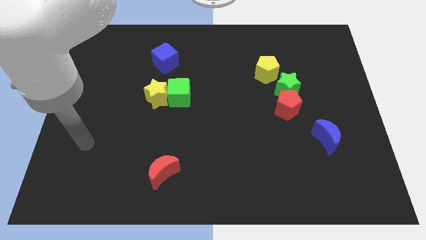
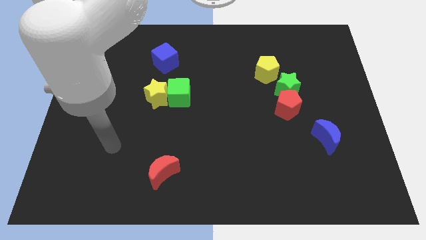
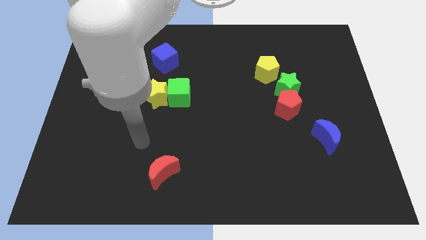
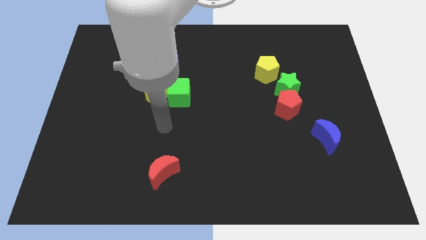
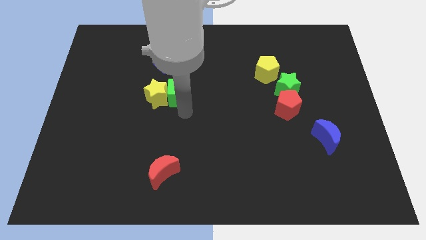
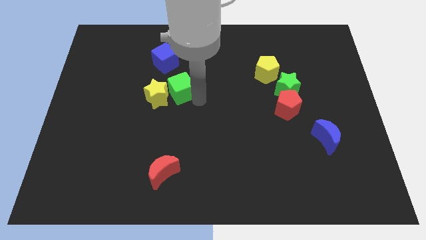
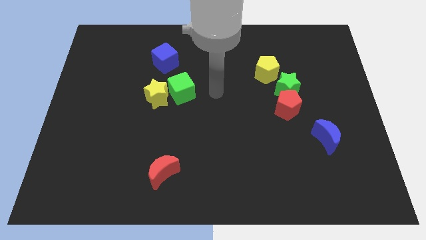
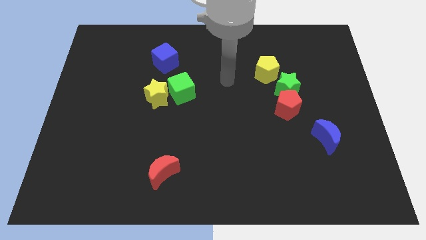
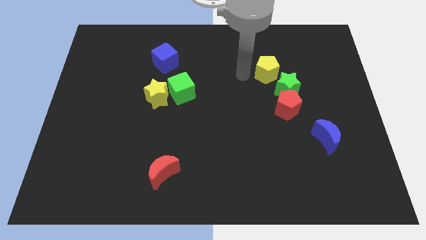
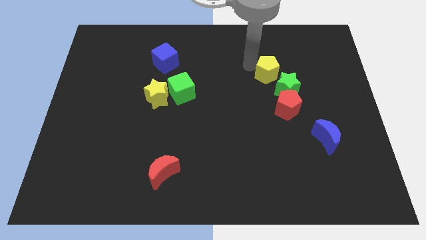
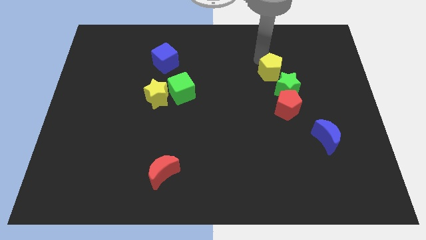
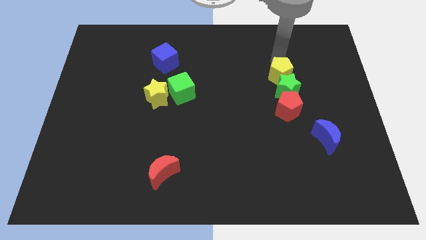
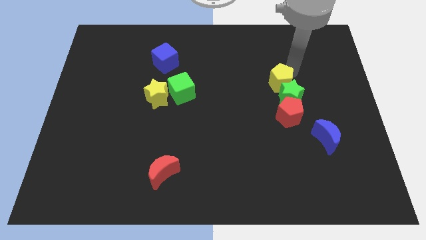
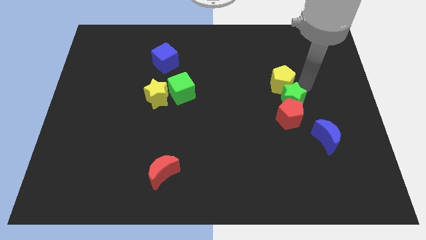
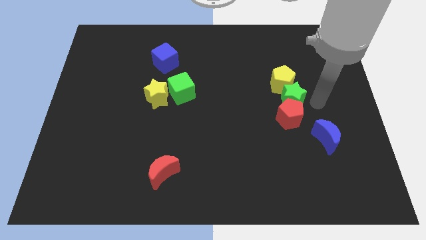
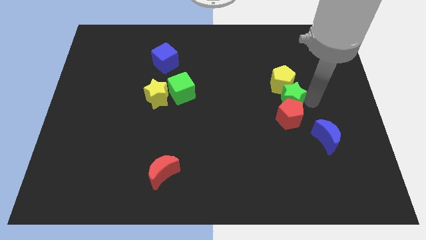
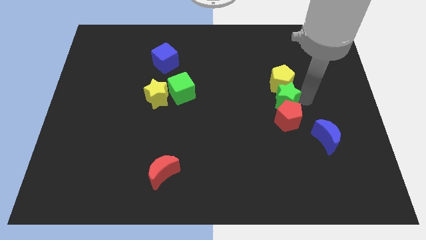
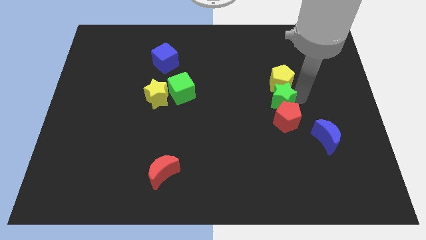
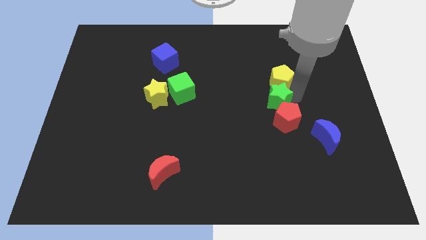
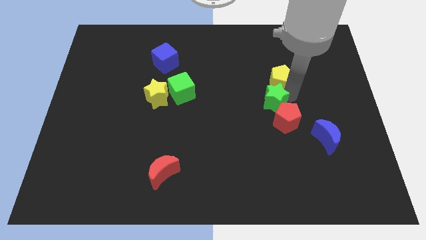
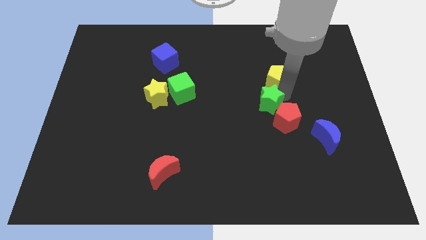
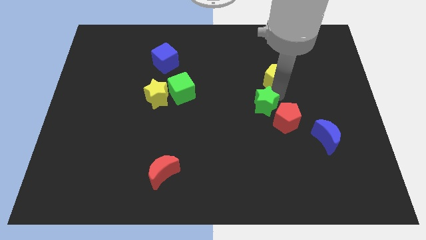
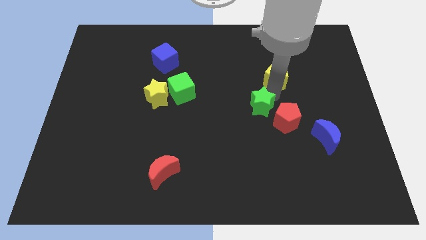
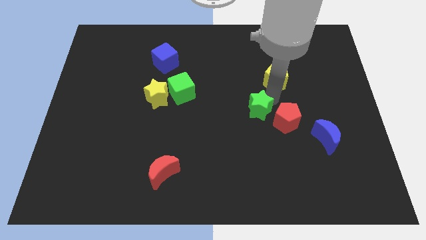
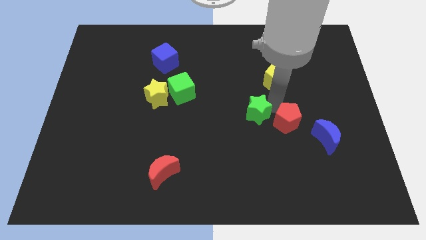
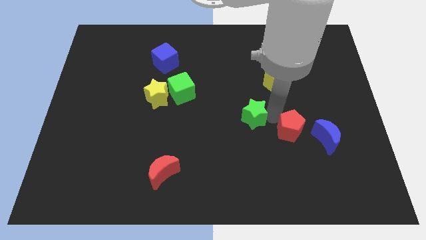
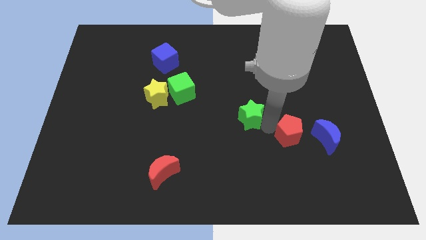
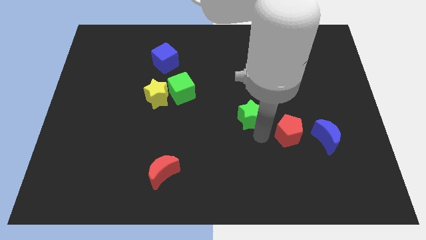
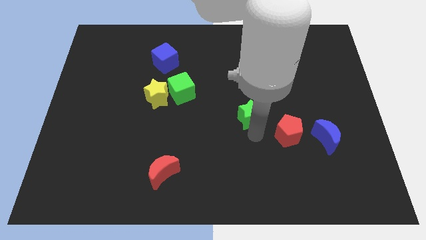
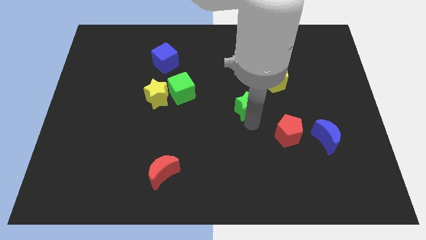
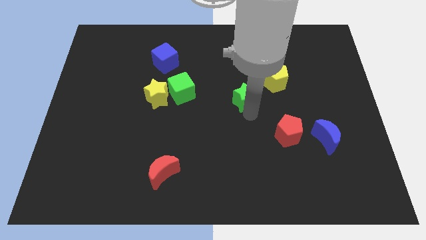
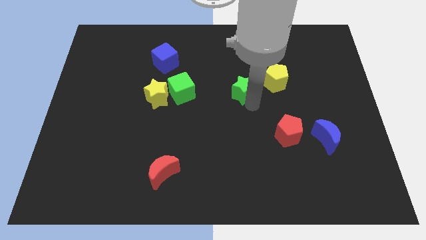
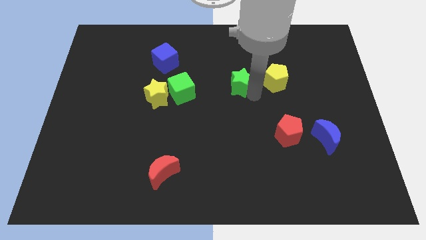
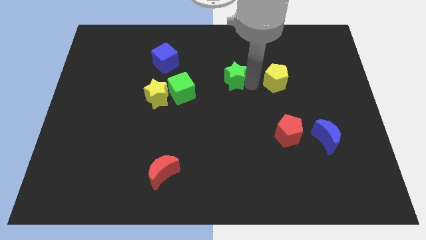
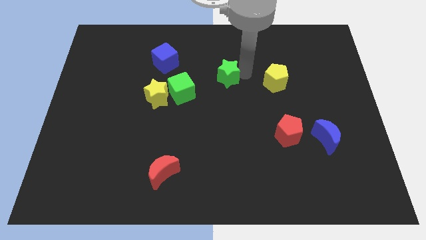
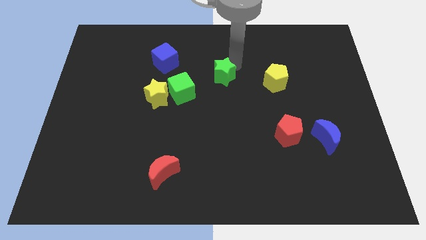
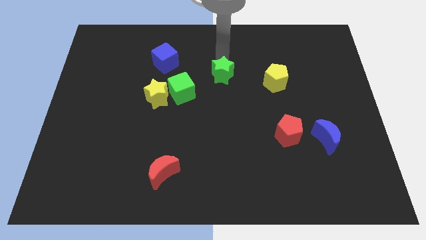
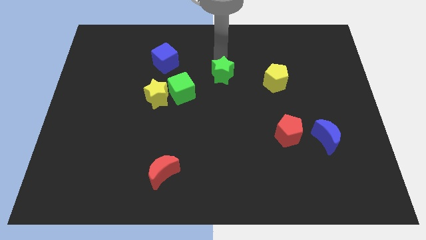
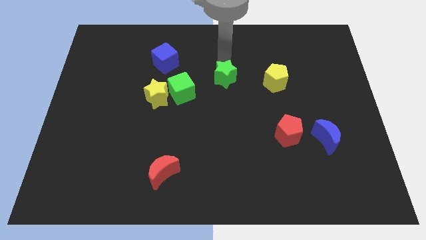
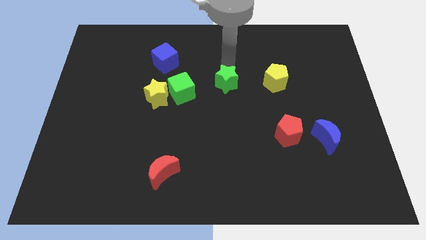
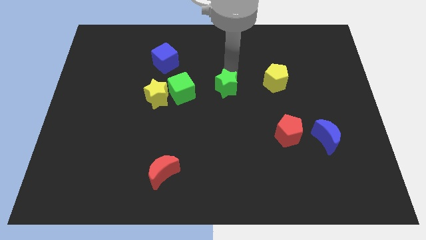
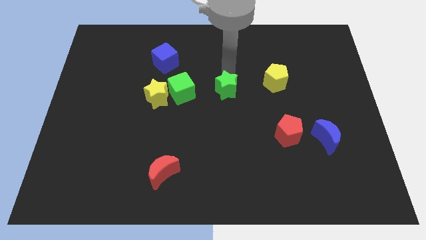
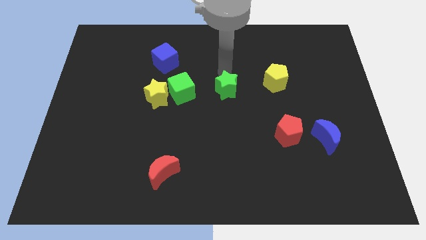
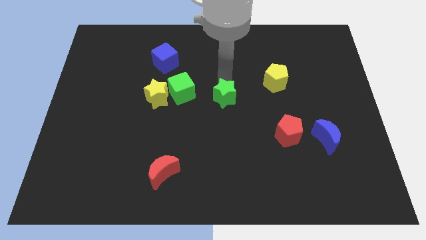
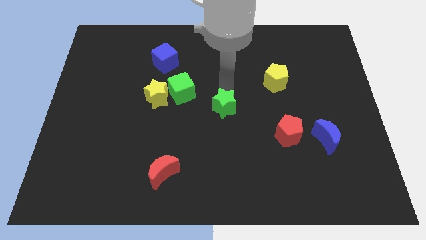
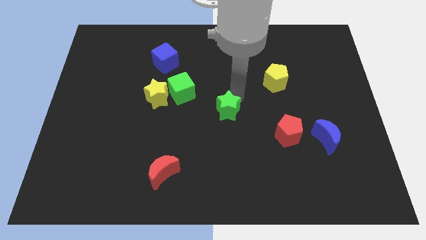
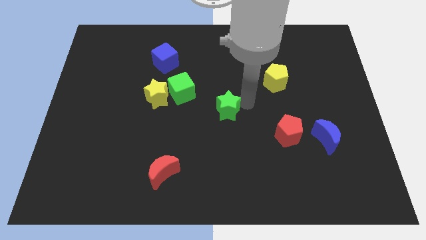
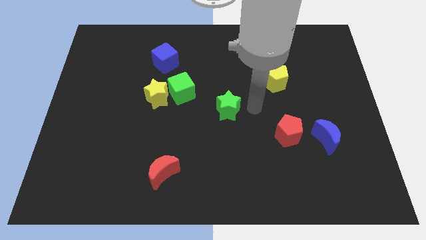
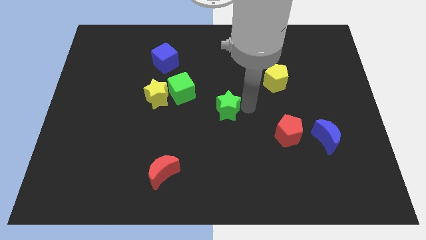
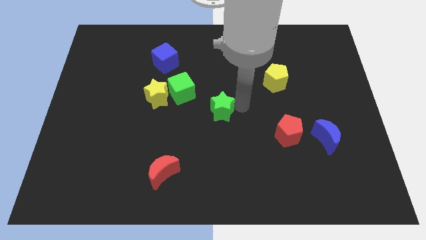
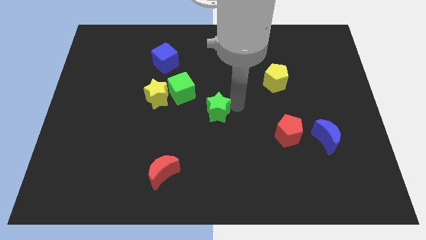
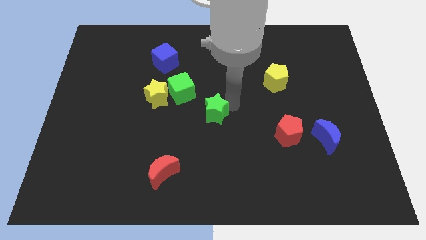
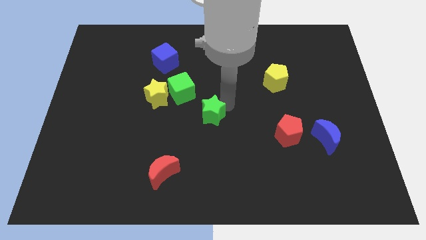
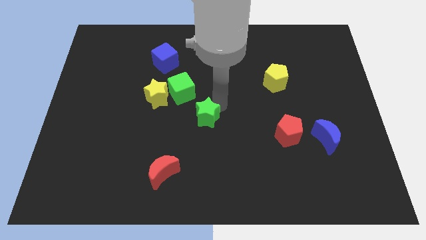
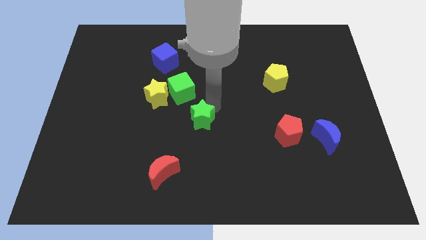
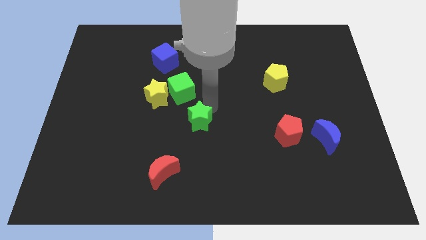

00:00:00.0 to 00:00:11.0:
put the green star to the bottom right of the yellow star

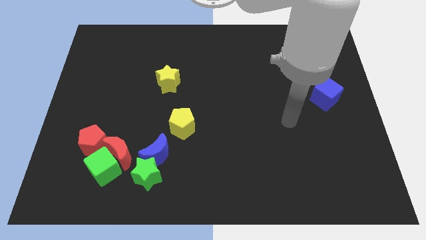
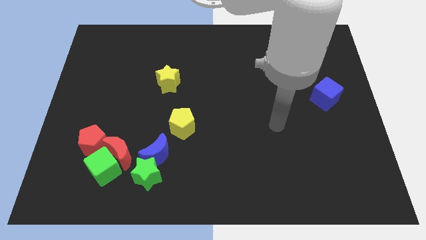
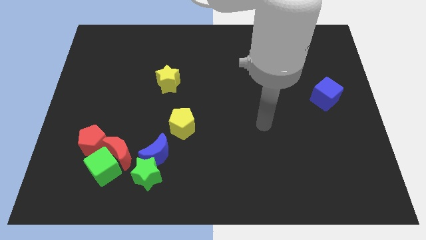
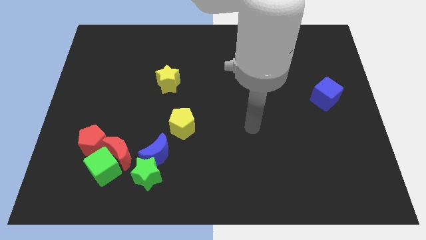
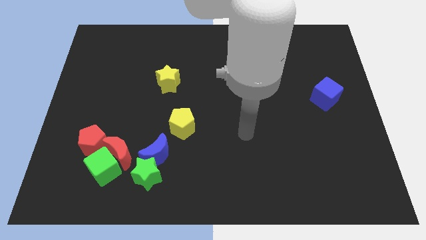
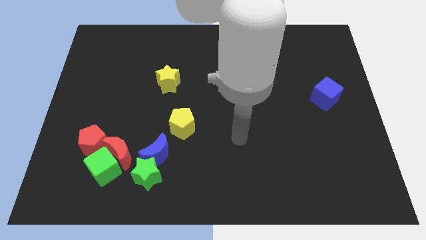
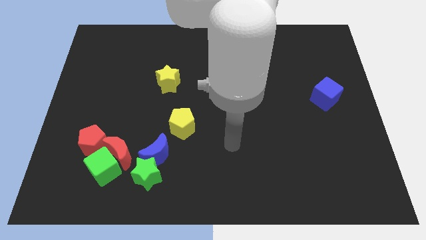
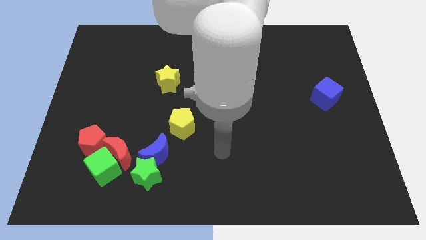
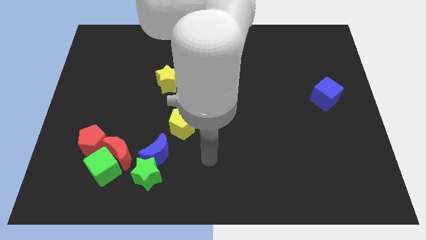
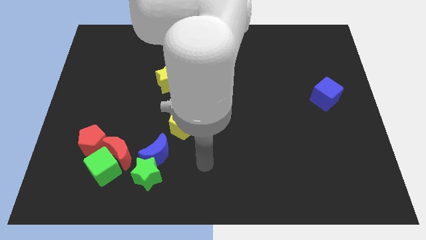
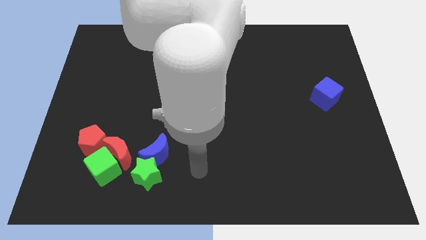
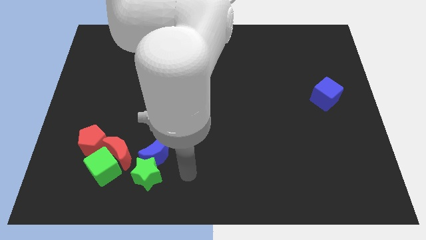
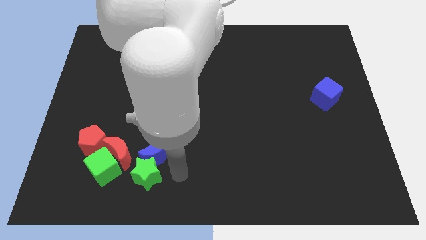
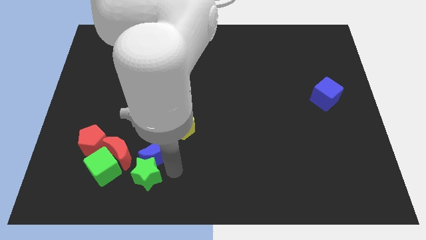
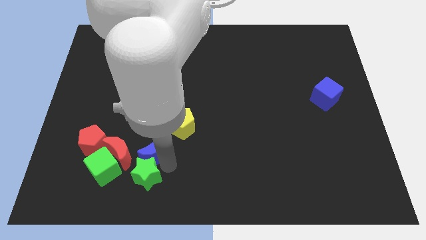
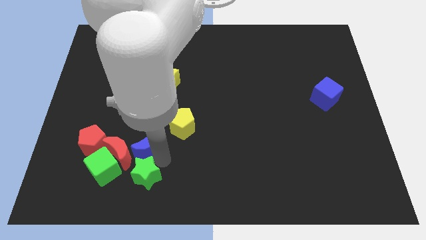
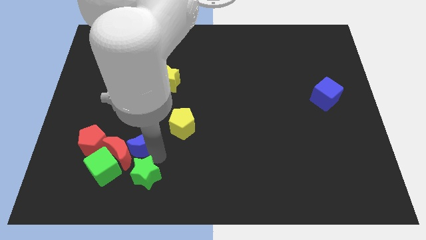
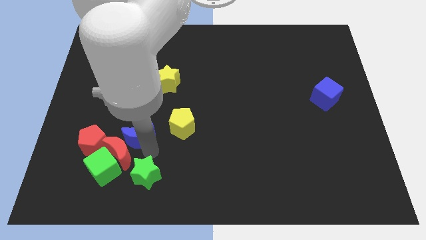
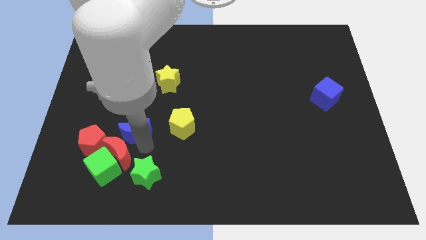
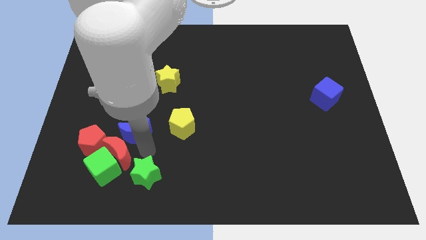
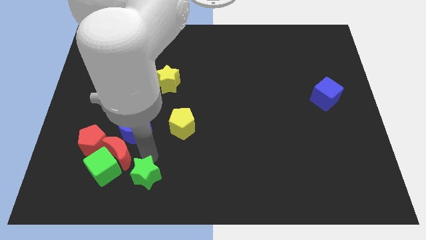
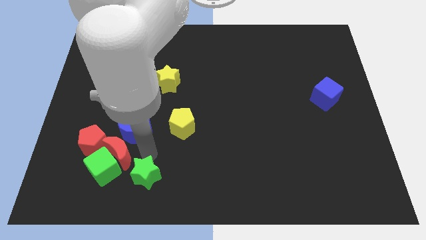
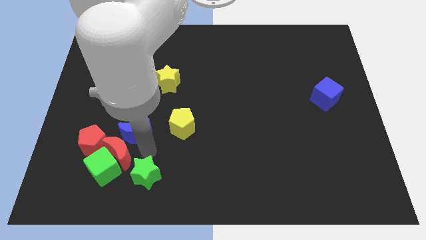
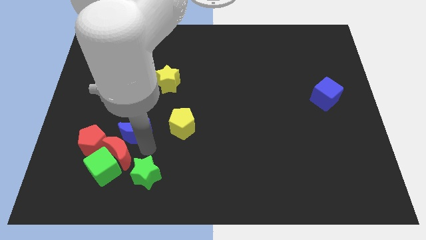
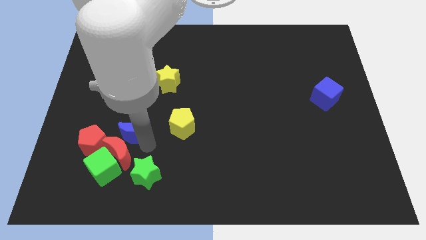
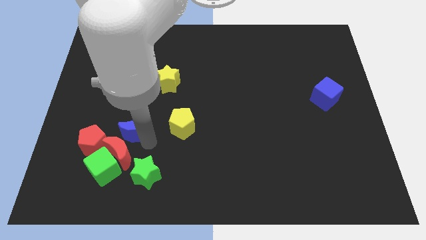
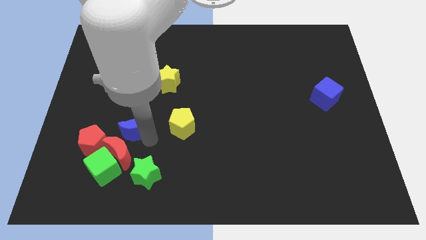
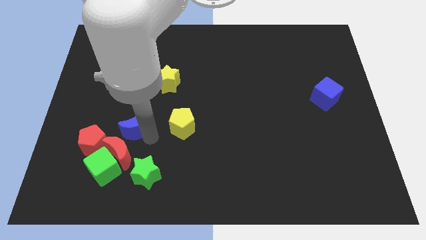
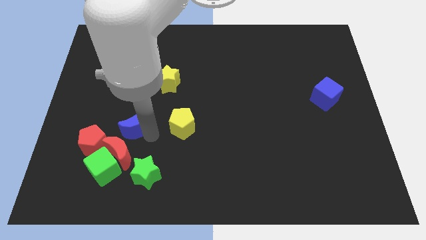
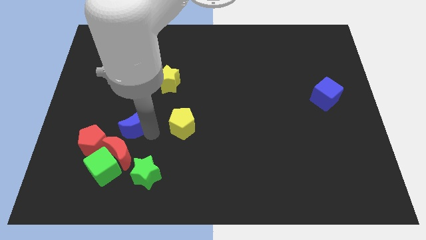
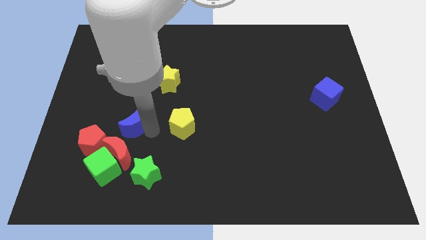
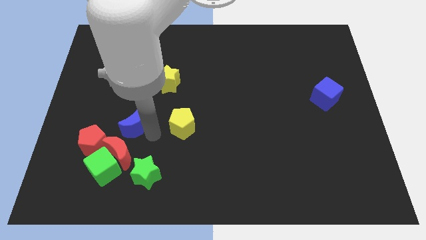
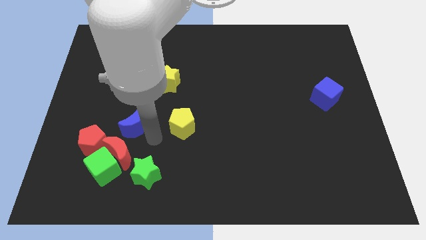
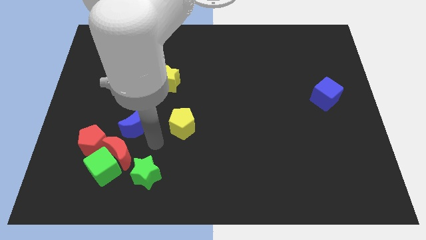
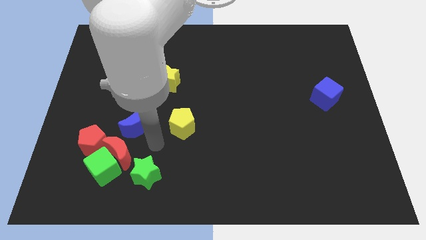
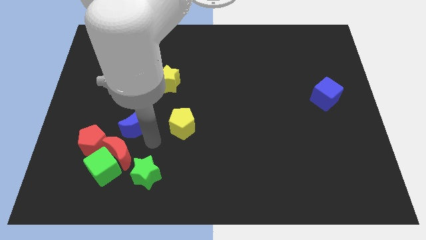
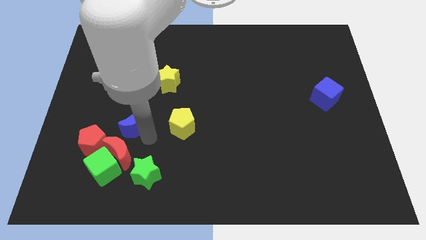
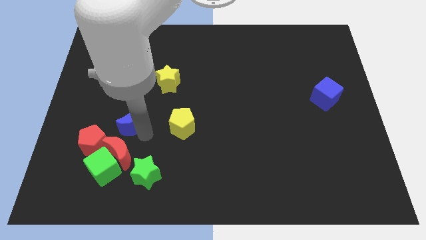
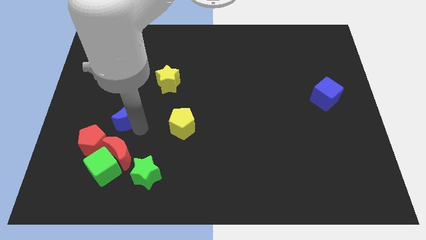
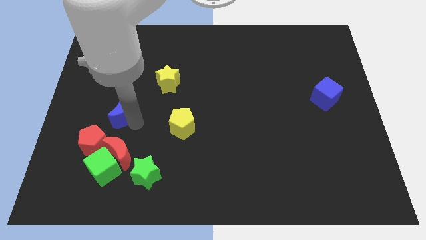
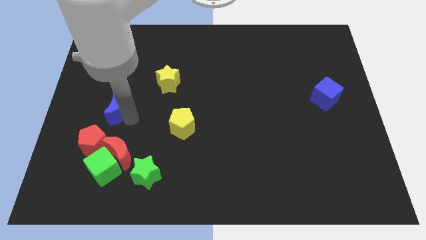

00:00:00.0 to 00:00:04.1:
put the blue moon to the top side of the red pentagon
